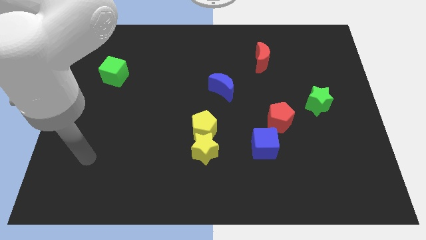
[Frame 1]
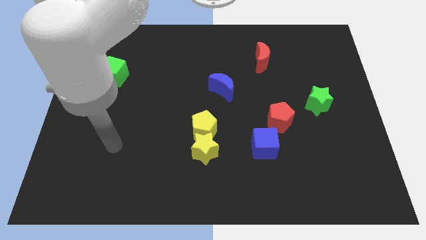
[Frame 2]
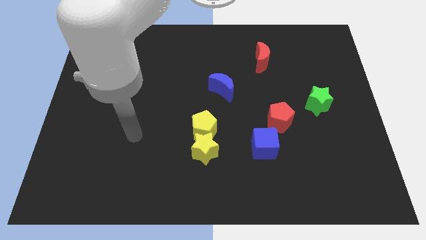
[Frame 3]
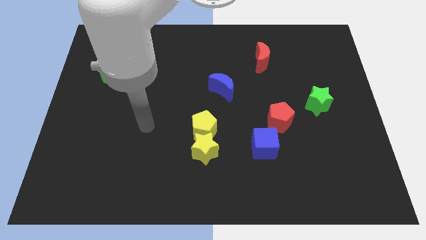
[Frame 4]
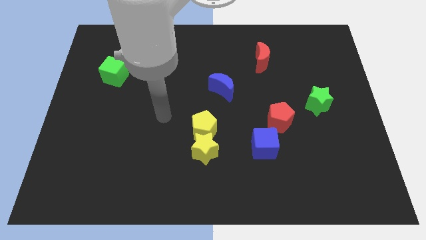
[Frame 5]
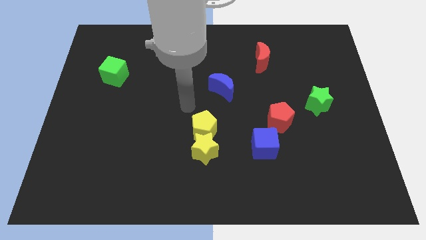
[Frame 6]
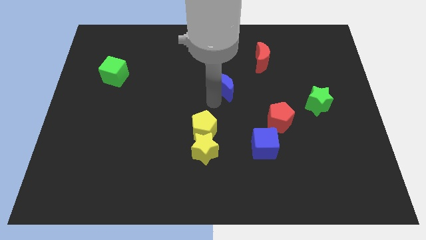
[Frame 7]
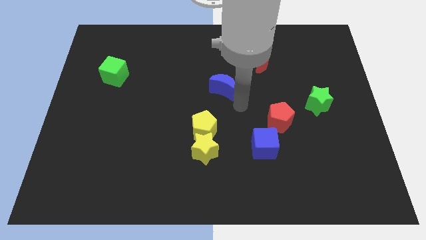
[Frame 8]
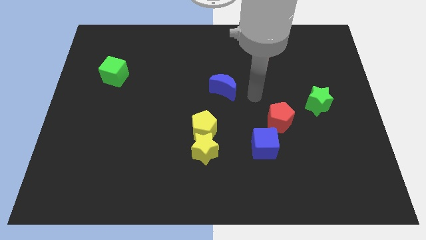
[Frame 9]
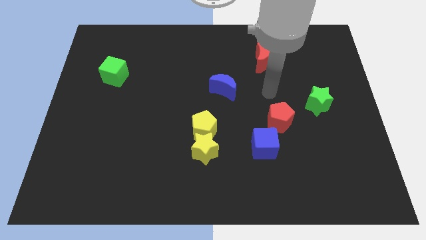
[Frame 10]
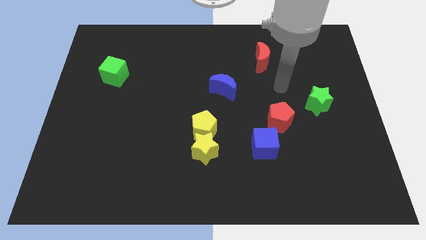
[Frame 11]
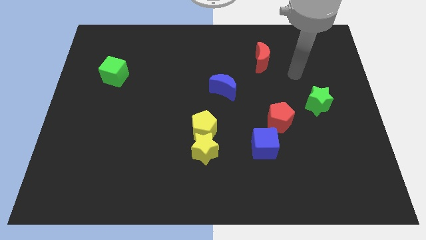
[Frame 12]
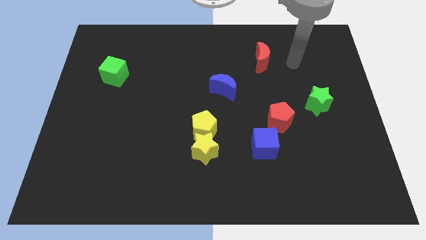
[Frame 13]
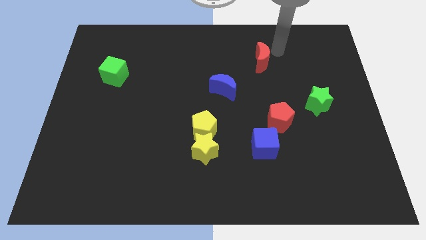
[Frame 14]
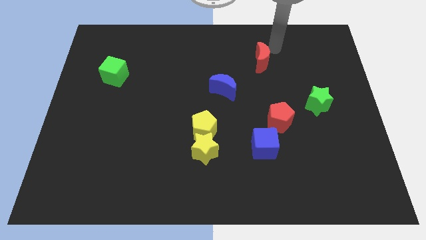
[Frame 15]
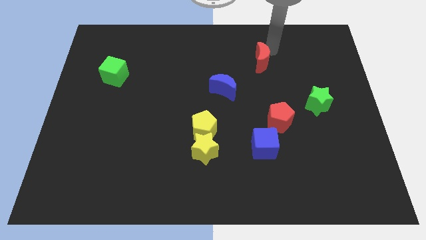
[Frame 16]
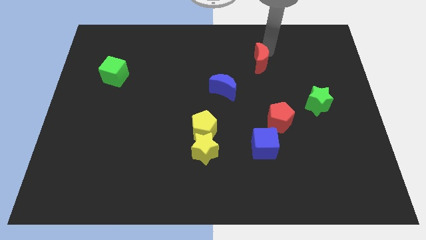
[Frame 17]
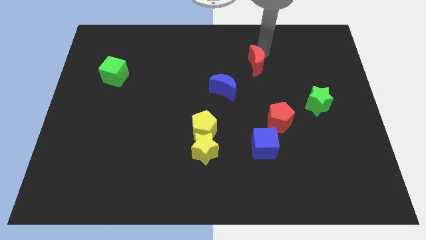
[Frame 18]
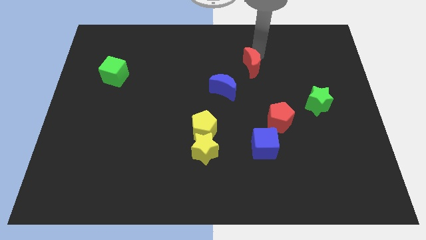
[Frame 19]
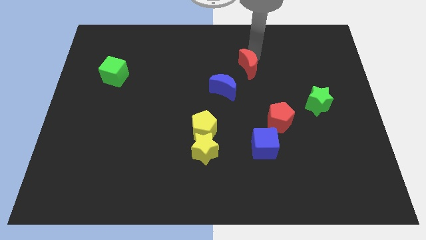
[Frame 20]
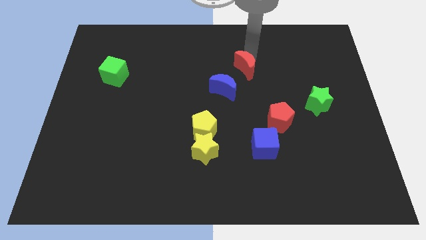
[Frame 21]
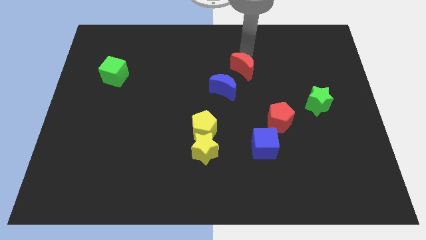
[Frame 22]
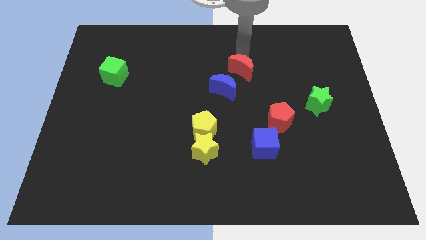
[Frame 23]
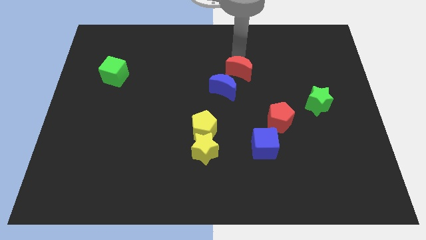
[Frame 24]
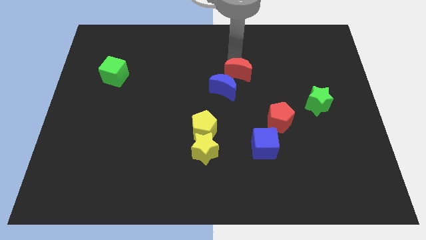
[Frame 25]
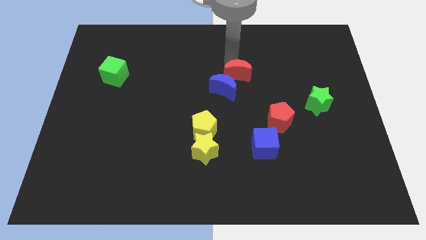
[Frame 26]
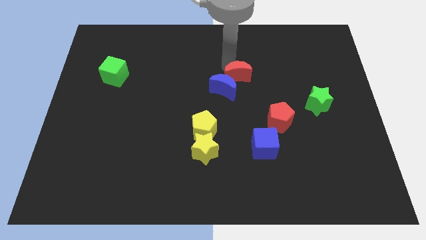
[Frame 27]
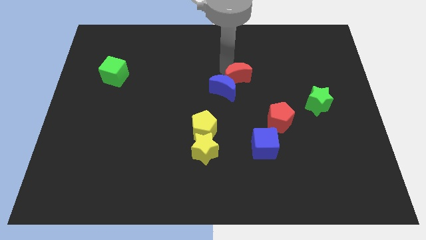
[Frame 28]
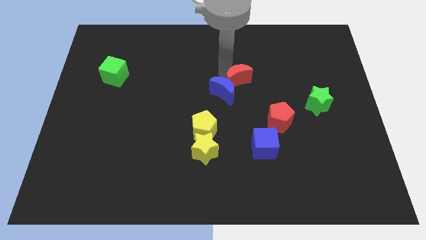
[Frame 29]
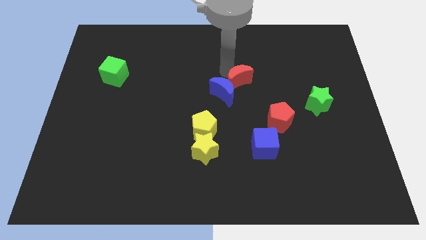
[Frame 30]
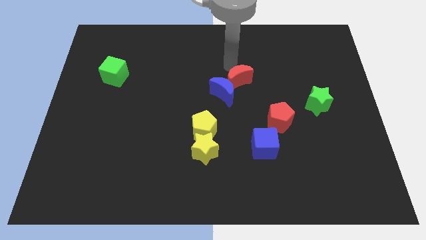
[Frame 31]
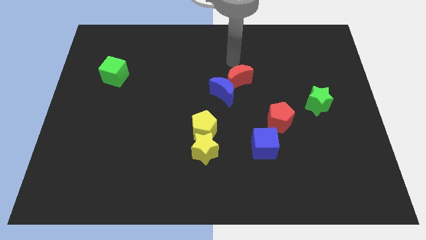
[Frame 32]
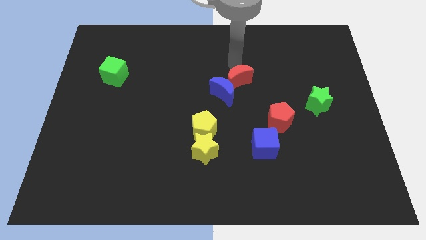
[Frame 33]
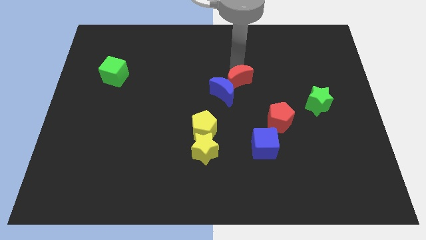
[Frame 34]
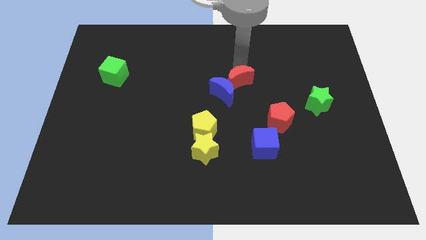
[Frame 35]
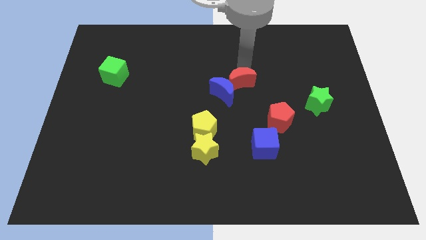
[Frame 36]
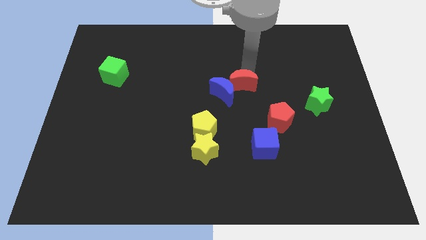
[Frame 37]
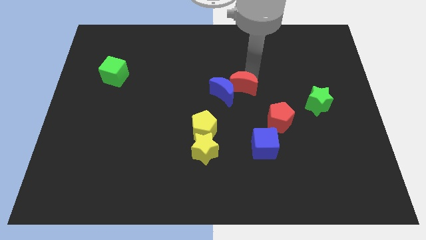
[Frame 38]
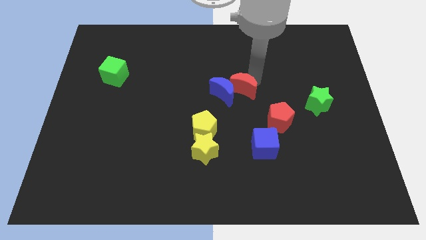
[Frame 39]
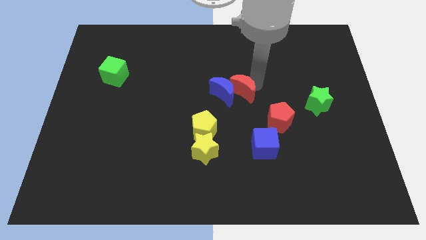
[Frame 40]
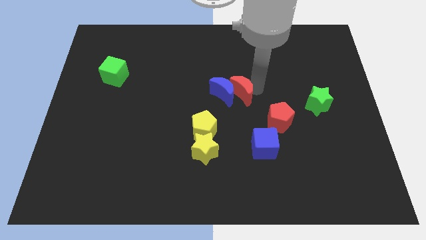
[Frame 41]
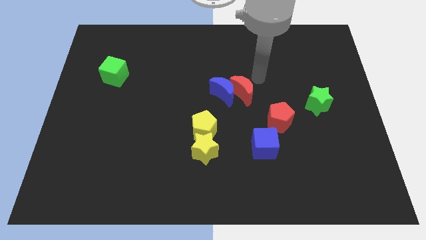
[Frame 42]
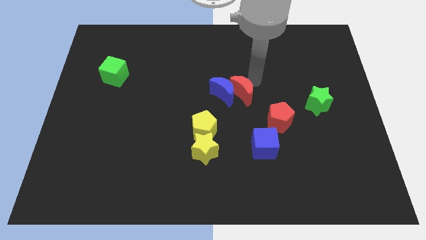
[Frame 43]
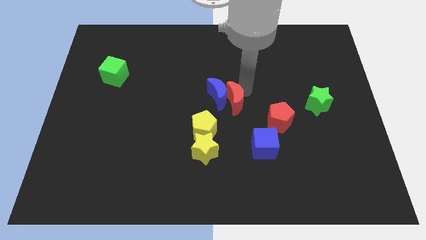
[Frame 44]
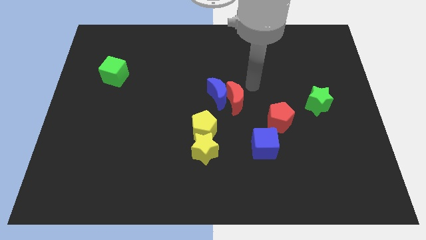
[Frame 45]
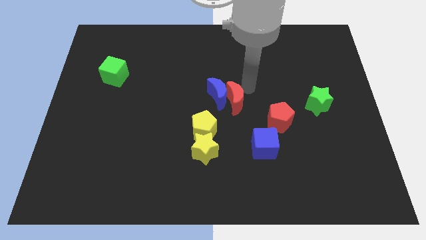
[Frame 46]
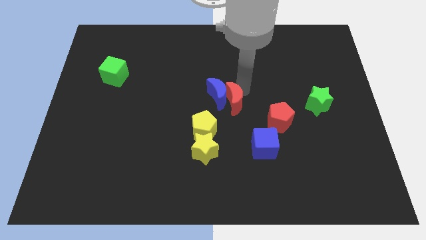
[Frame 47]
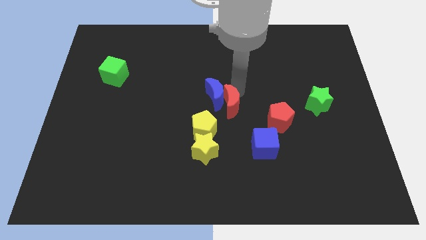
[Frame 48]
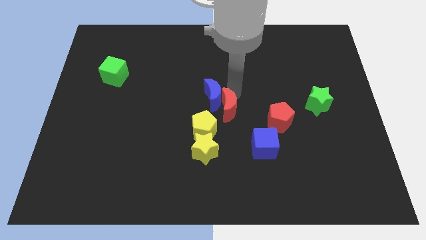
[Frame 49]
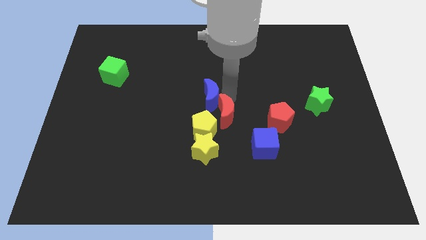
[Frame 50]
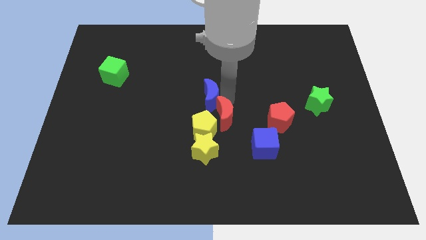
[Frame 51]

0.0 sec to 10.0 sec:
push the red moon towards the yellow pentagon

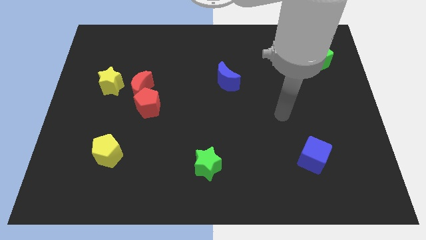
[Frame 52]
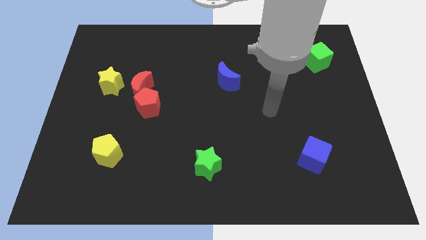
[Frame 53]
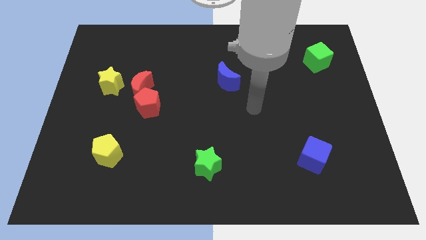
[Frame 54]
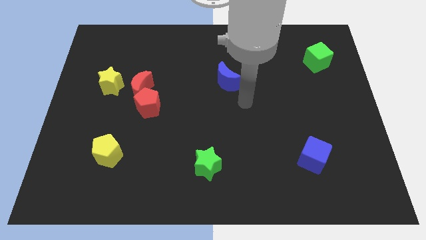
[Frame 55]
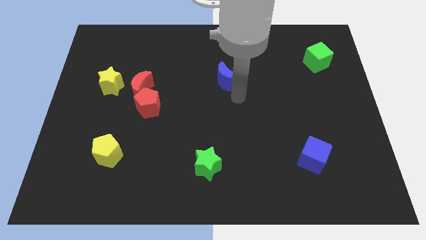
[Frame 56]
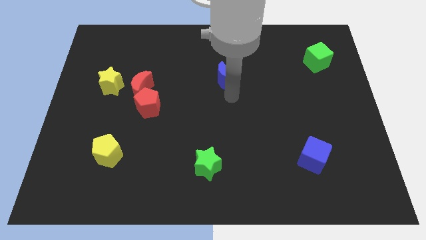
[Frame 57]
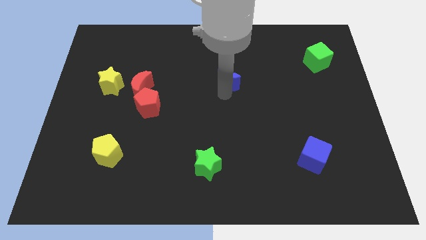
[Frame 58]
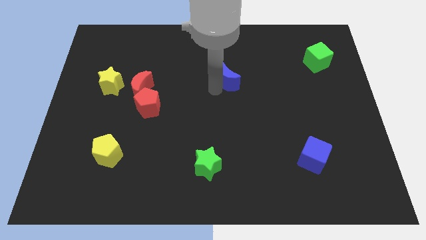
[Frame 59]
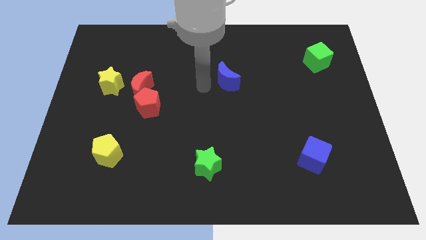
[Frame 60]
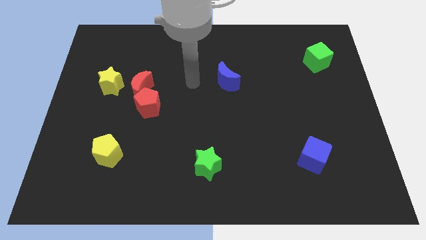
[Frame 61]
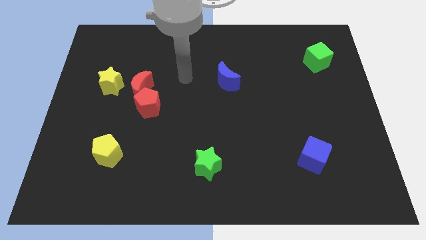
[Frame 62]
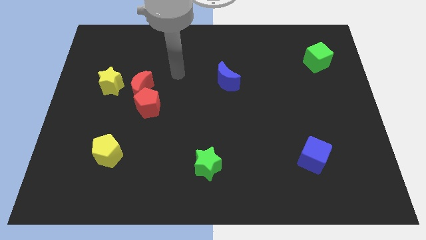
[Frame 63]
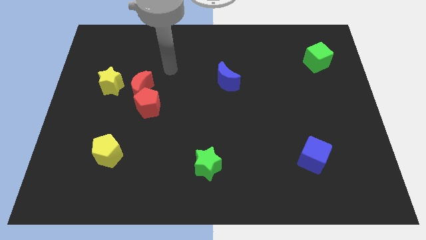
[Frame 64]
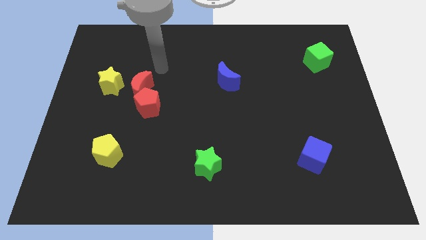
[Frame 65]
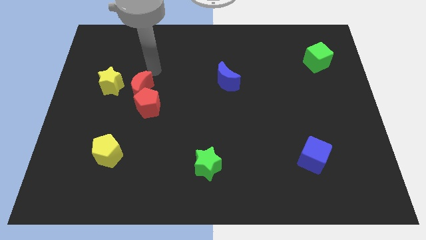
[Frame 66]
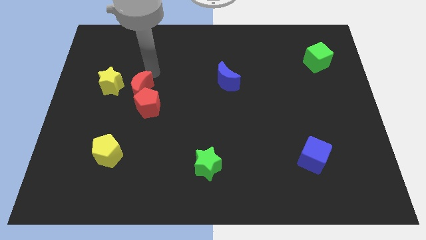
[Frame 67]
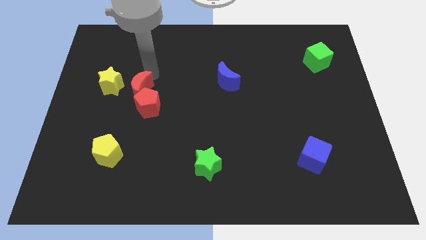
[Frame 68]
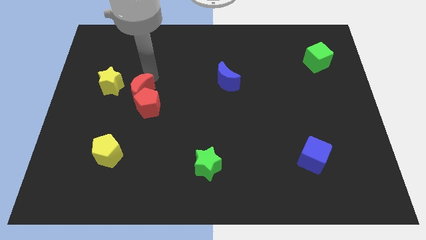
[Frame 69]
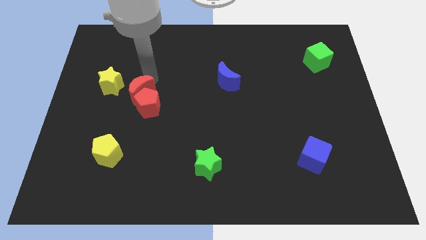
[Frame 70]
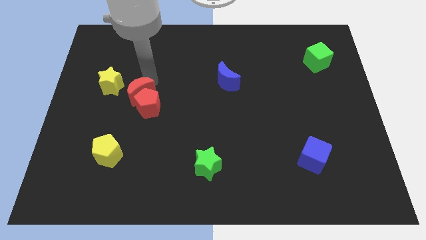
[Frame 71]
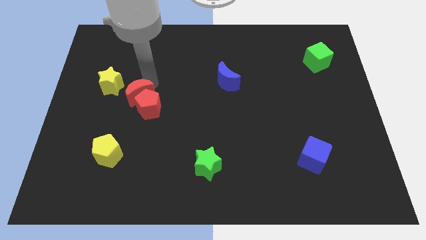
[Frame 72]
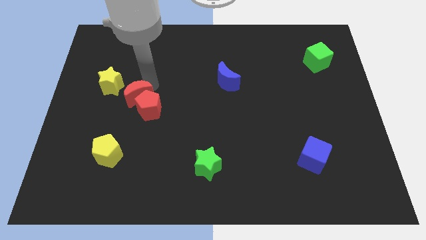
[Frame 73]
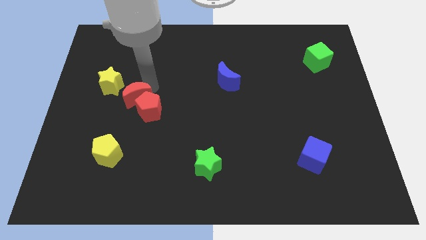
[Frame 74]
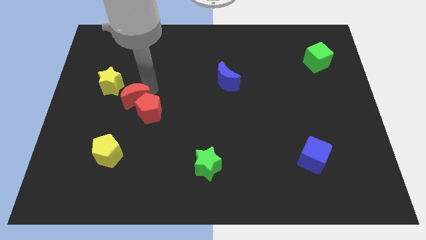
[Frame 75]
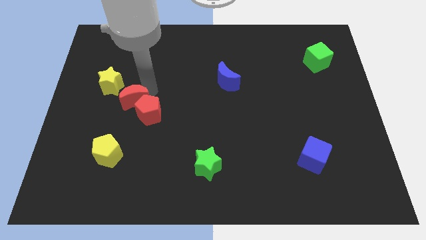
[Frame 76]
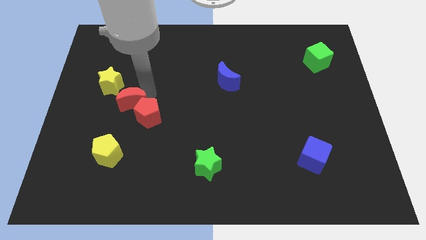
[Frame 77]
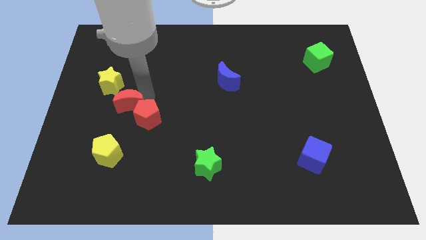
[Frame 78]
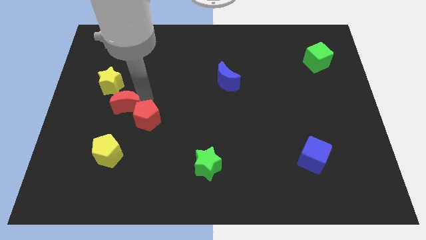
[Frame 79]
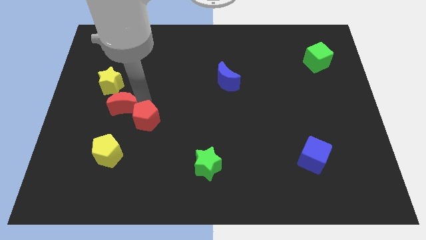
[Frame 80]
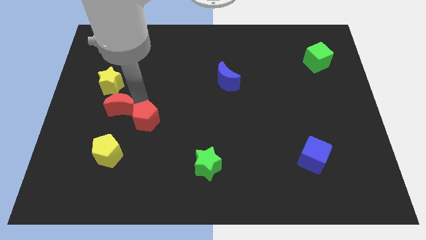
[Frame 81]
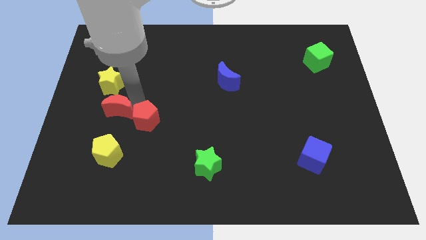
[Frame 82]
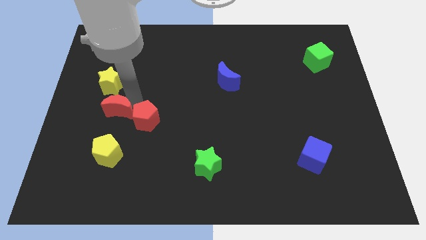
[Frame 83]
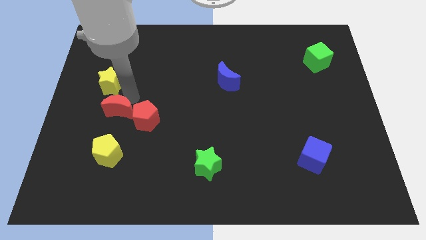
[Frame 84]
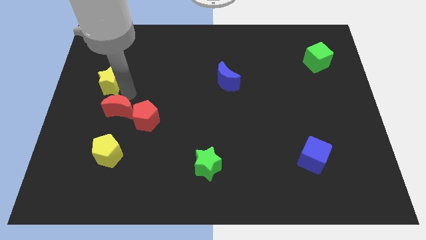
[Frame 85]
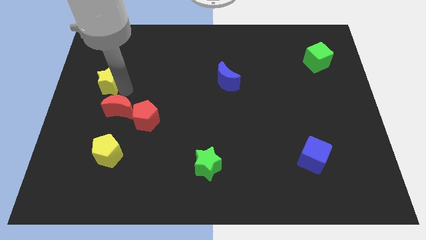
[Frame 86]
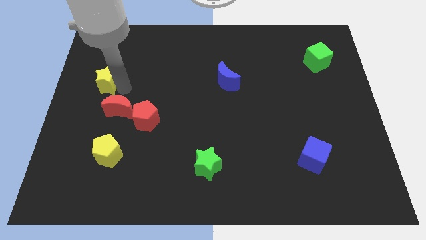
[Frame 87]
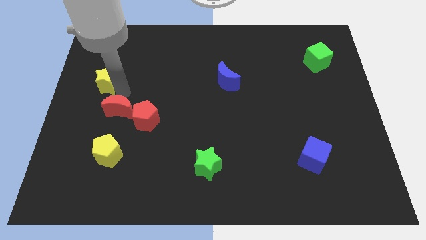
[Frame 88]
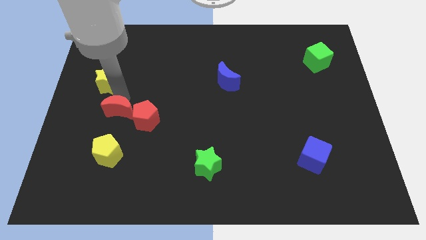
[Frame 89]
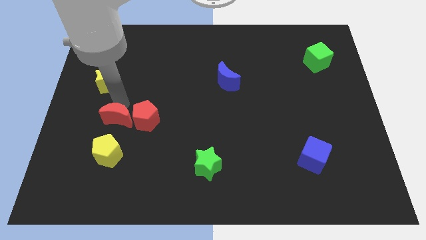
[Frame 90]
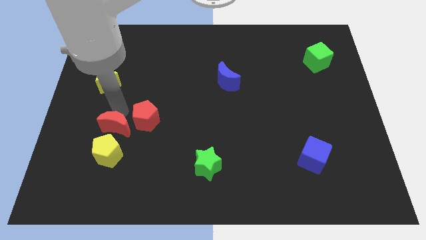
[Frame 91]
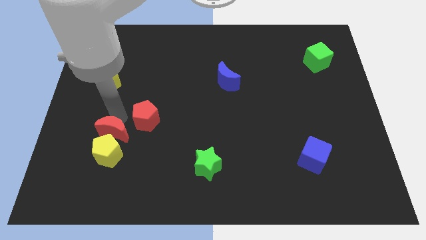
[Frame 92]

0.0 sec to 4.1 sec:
push the red moon to the yellow pentagon
